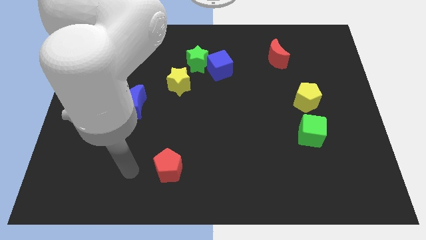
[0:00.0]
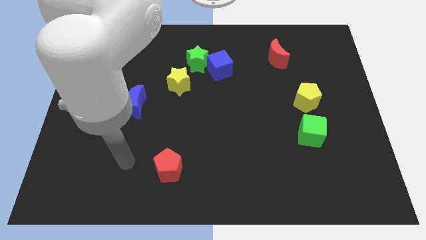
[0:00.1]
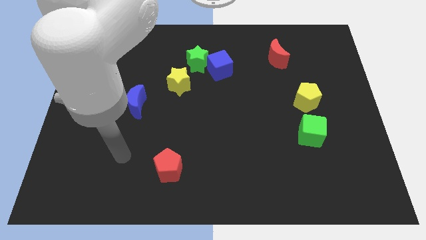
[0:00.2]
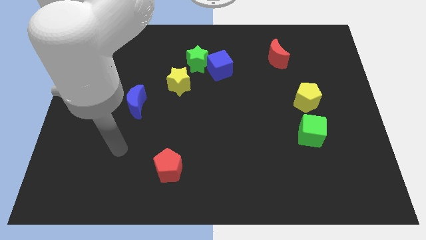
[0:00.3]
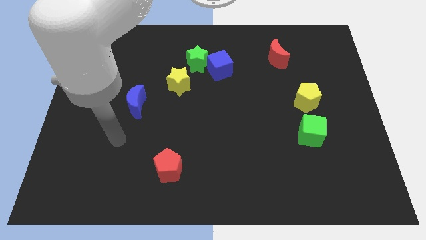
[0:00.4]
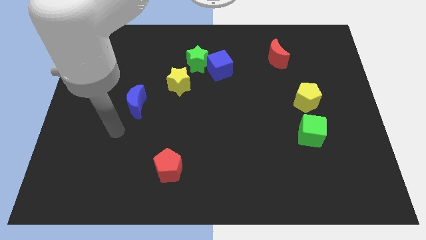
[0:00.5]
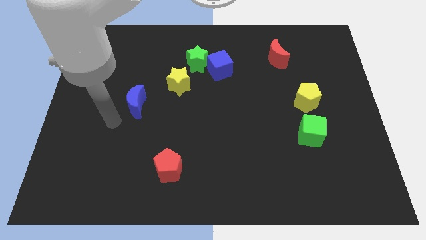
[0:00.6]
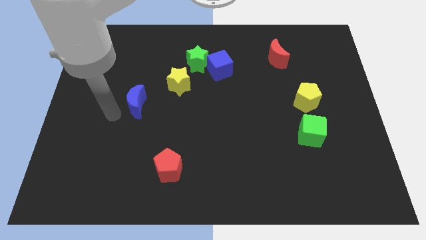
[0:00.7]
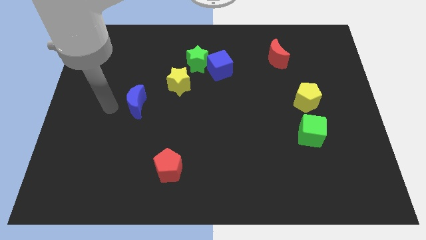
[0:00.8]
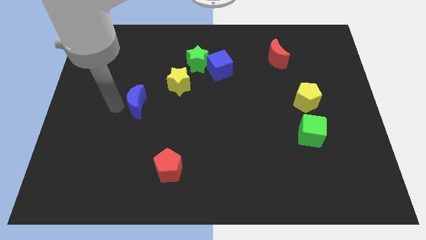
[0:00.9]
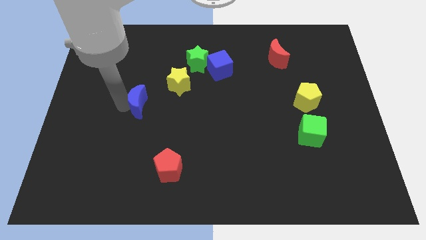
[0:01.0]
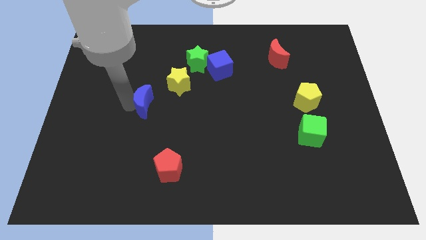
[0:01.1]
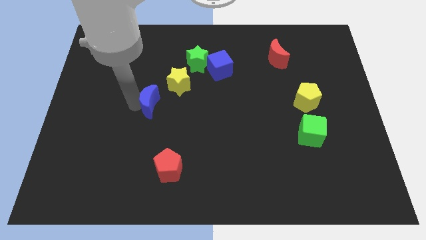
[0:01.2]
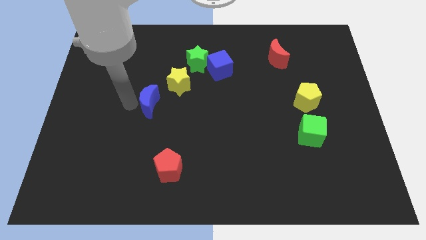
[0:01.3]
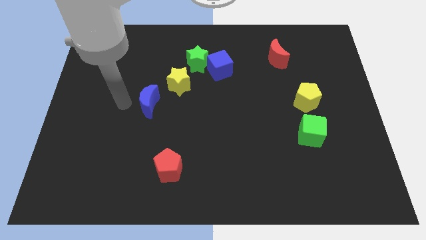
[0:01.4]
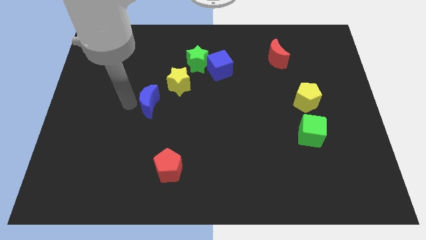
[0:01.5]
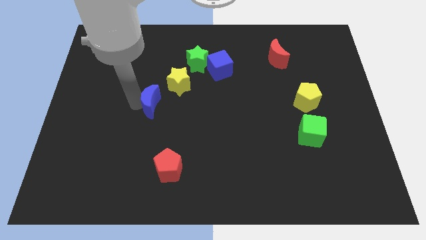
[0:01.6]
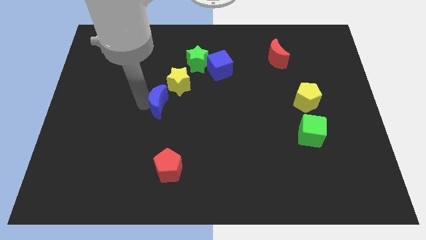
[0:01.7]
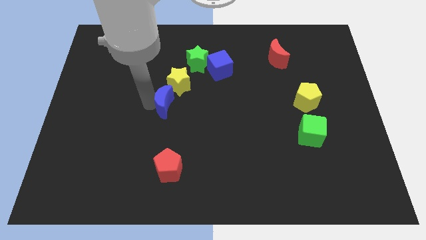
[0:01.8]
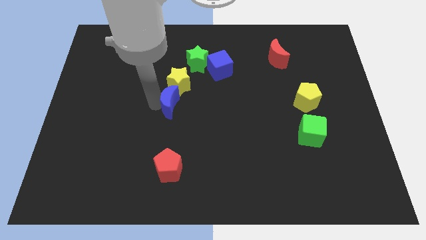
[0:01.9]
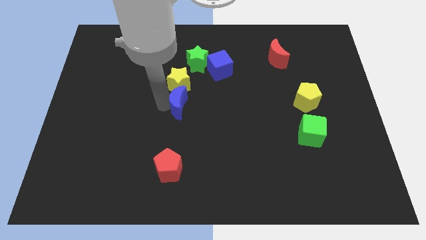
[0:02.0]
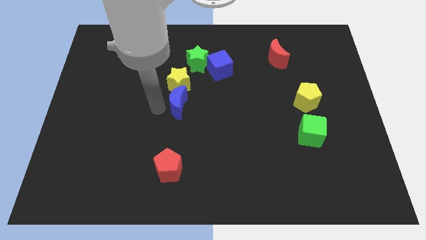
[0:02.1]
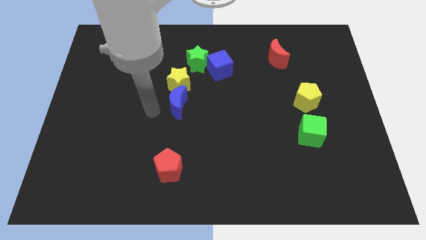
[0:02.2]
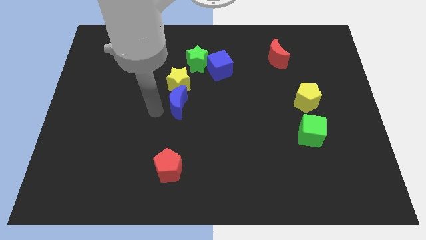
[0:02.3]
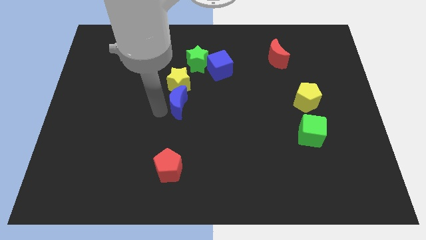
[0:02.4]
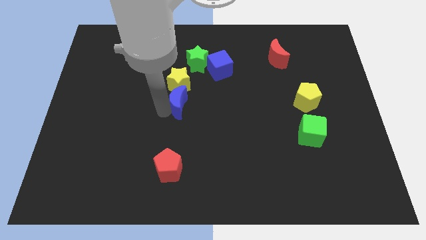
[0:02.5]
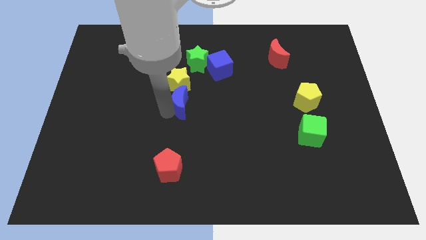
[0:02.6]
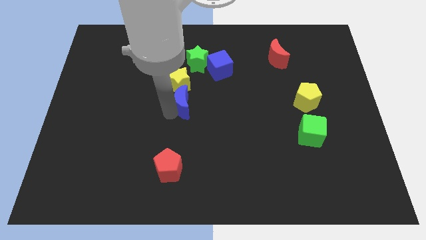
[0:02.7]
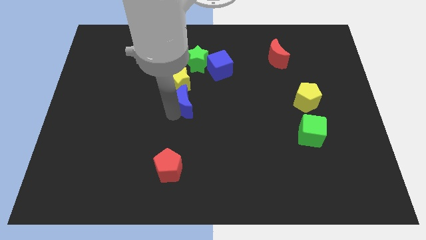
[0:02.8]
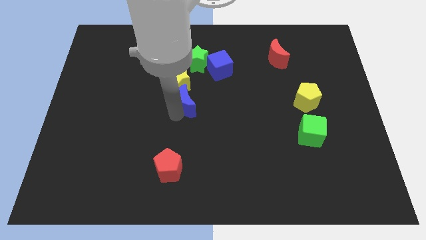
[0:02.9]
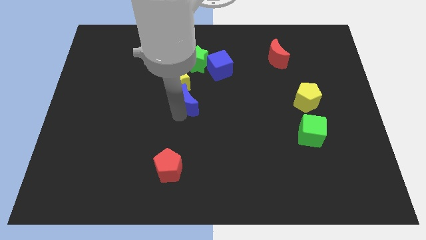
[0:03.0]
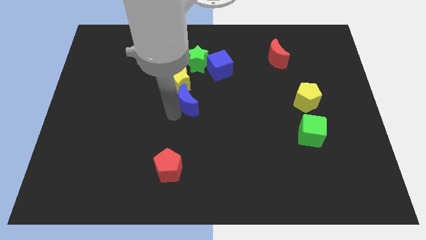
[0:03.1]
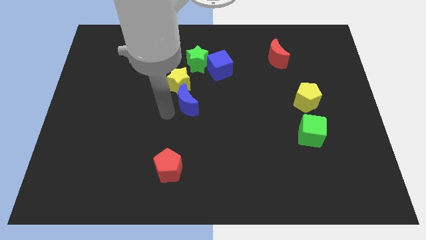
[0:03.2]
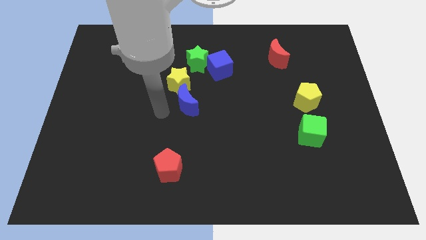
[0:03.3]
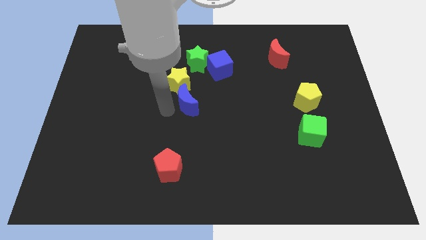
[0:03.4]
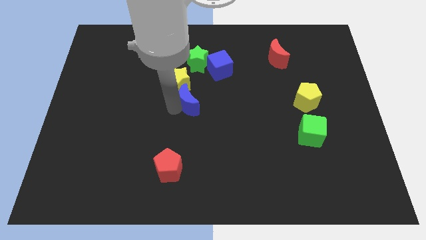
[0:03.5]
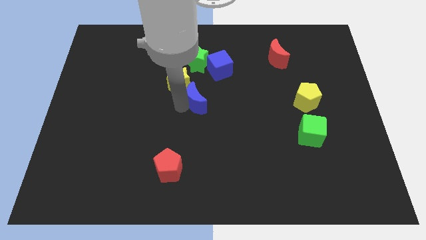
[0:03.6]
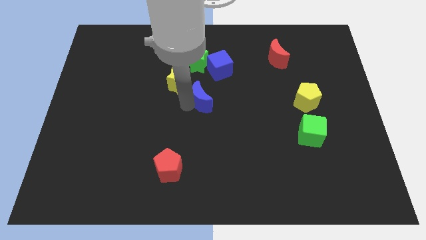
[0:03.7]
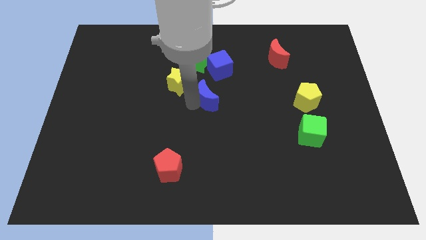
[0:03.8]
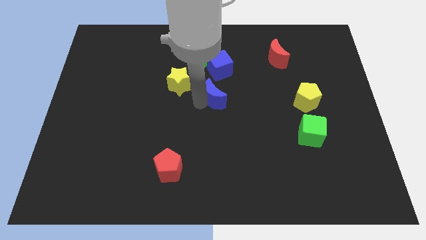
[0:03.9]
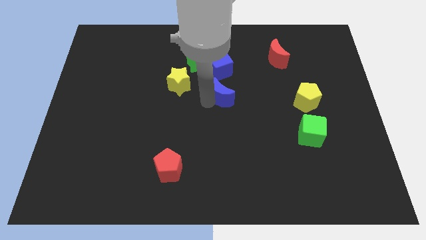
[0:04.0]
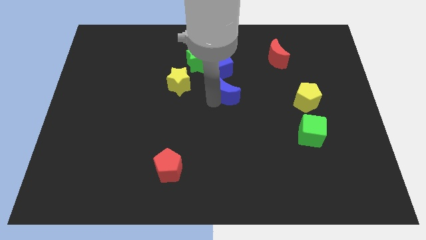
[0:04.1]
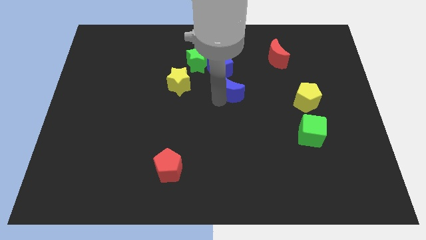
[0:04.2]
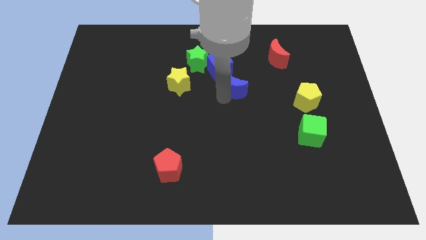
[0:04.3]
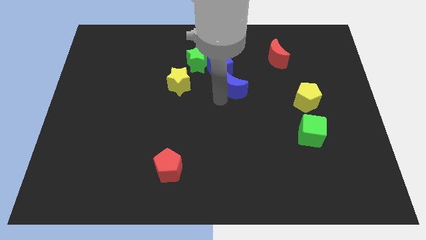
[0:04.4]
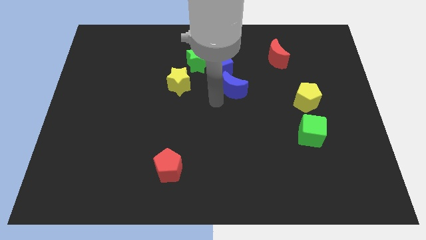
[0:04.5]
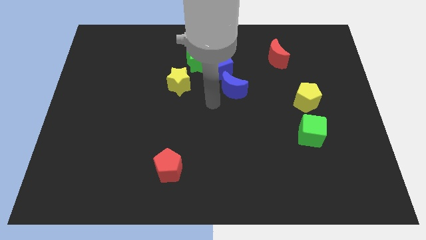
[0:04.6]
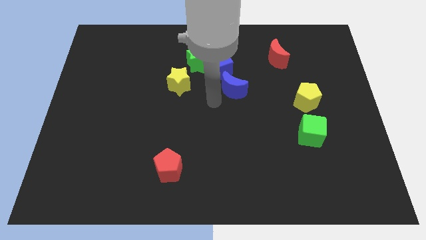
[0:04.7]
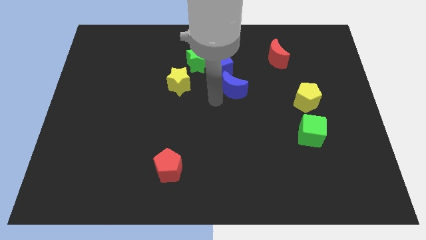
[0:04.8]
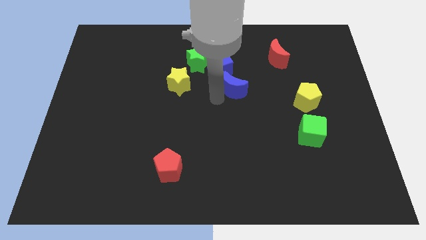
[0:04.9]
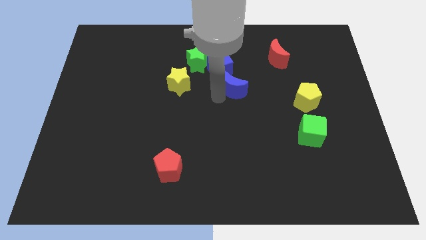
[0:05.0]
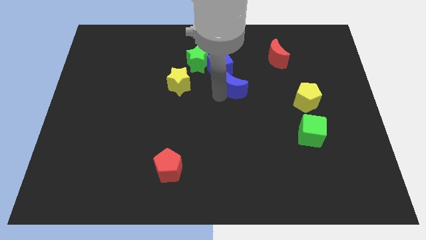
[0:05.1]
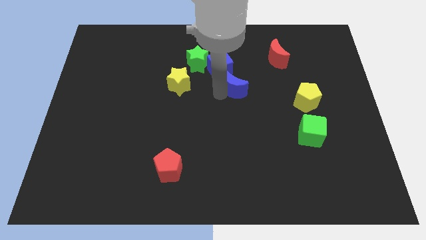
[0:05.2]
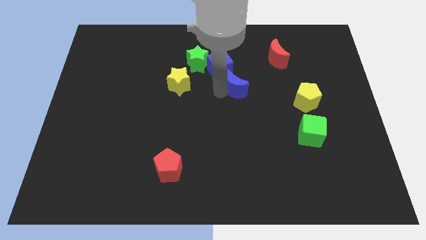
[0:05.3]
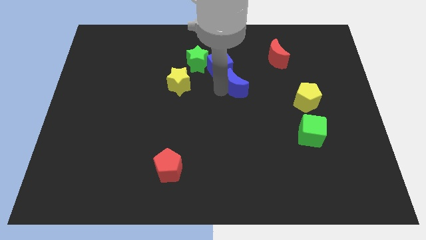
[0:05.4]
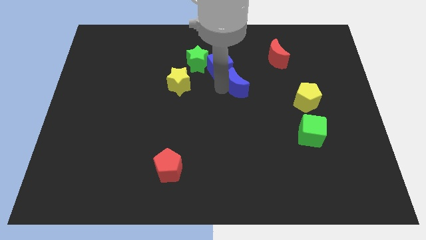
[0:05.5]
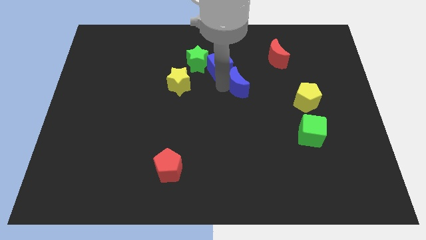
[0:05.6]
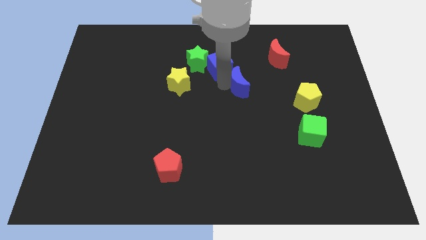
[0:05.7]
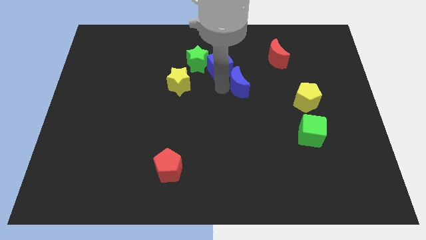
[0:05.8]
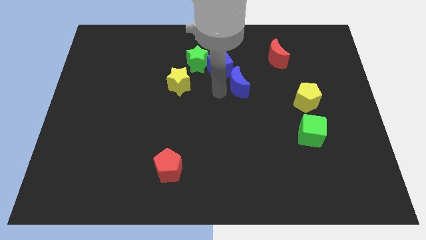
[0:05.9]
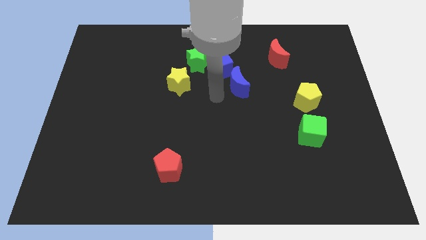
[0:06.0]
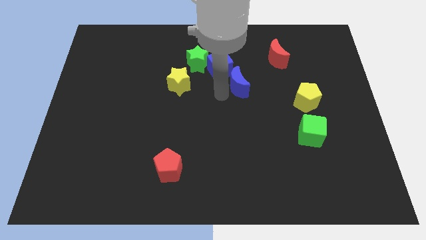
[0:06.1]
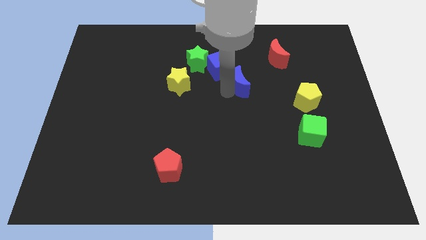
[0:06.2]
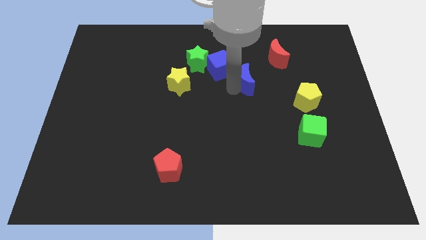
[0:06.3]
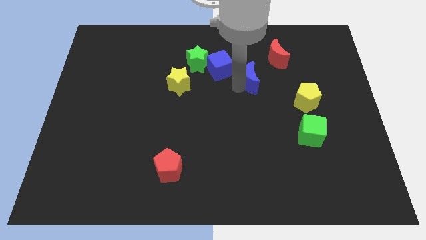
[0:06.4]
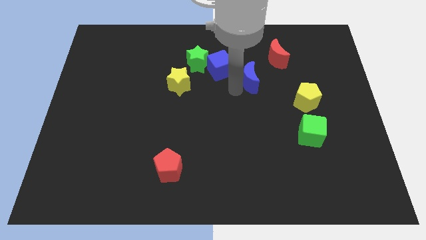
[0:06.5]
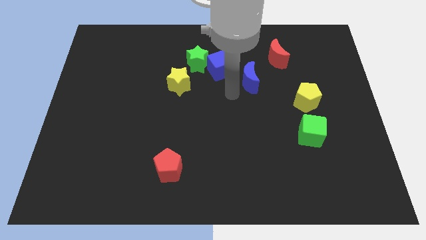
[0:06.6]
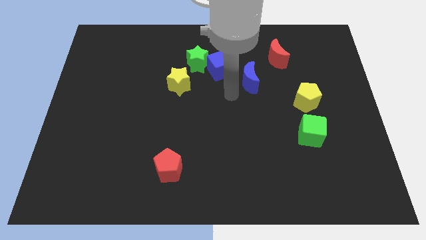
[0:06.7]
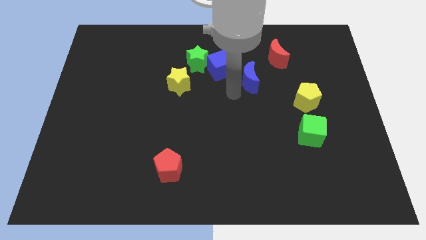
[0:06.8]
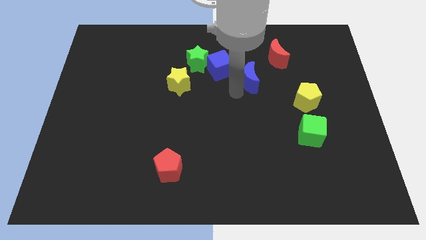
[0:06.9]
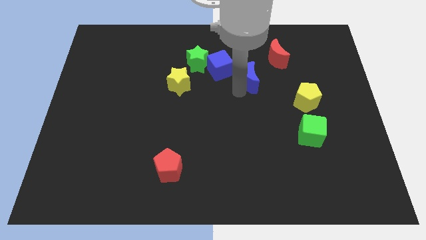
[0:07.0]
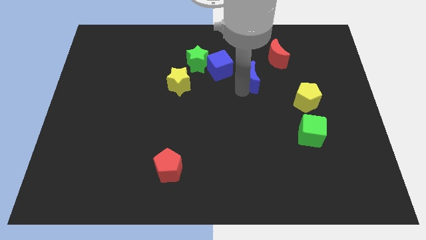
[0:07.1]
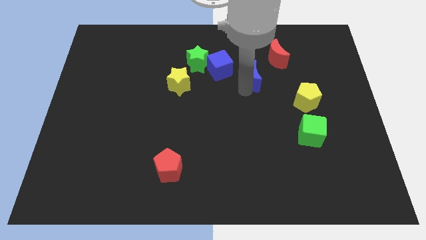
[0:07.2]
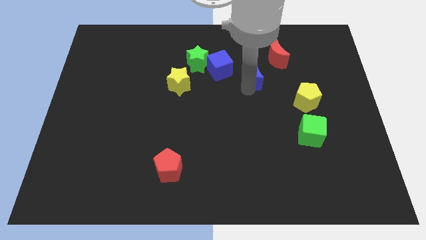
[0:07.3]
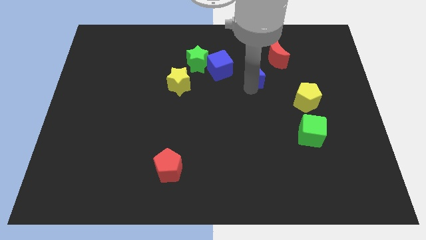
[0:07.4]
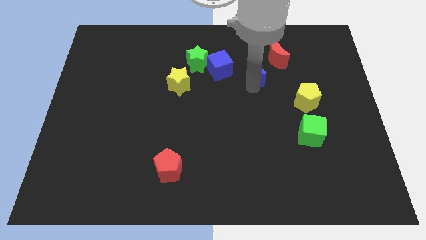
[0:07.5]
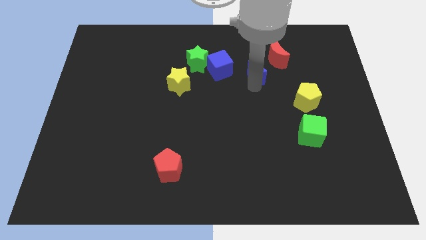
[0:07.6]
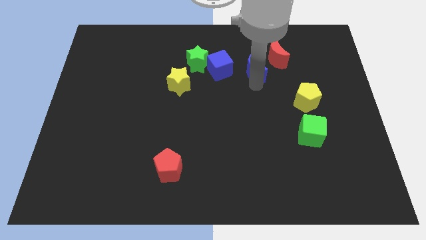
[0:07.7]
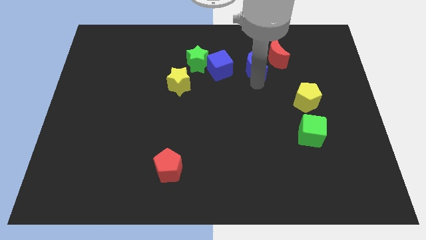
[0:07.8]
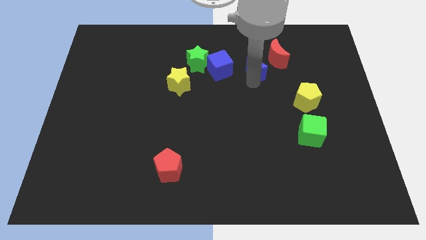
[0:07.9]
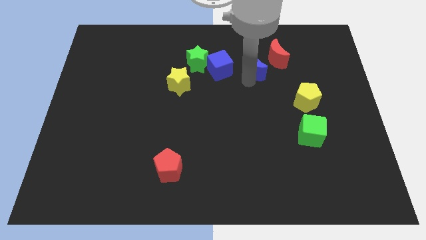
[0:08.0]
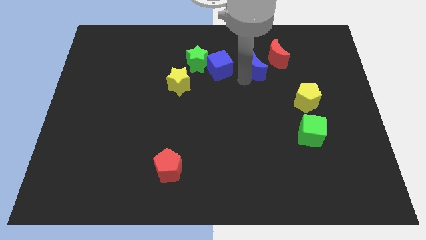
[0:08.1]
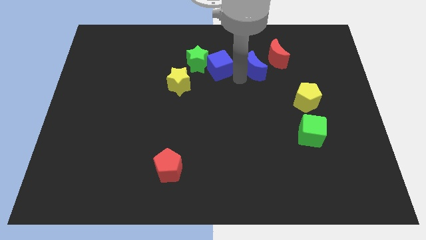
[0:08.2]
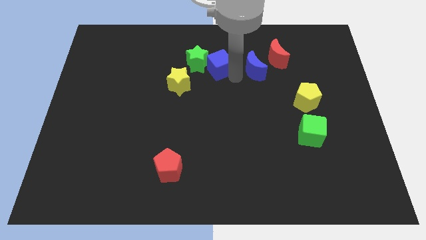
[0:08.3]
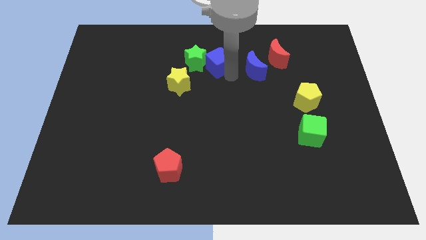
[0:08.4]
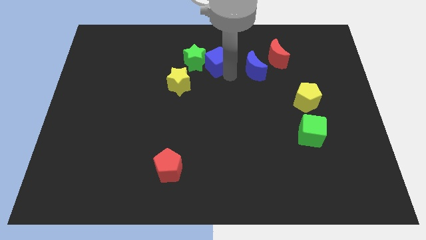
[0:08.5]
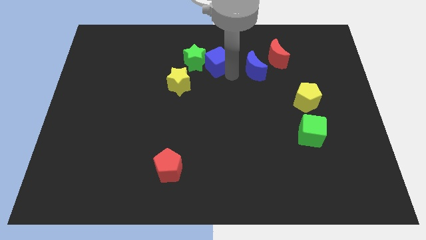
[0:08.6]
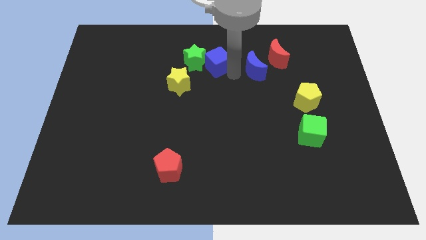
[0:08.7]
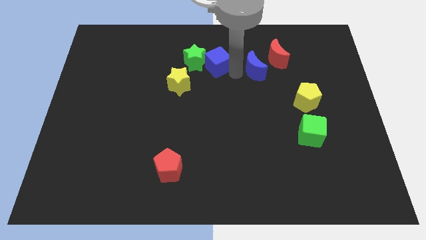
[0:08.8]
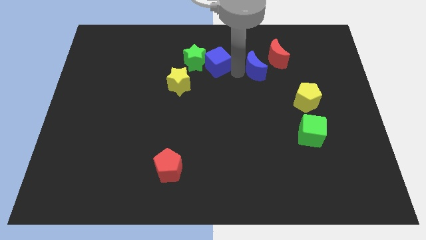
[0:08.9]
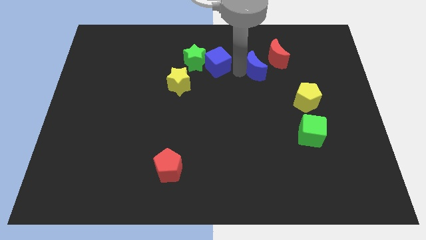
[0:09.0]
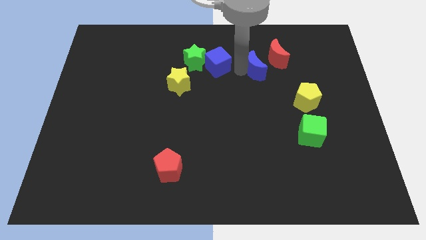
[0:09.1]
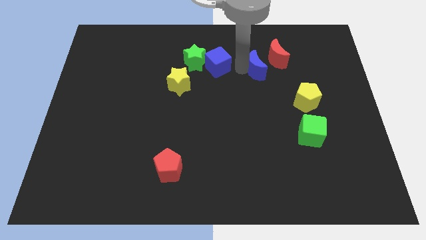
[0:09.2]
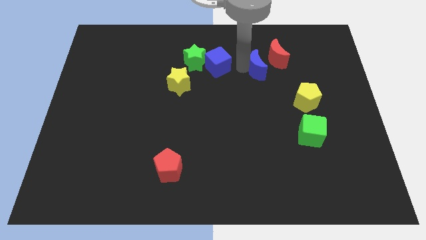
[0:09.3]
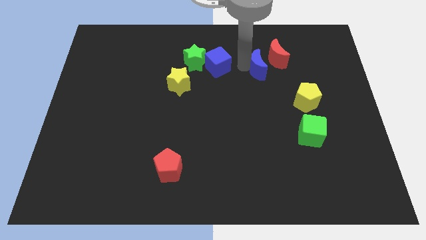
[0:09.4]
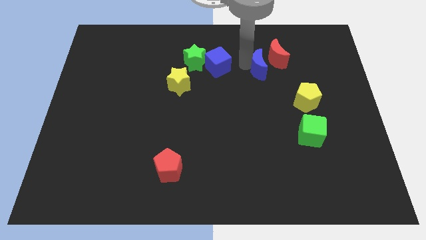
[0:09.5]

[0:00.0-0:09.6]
slide the blue moon close to the red moon
